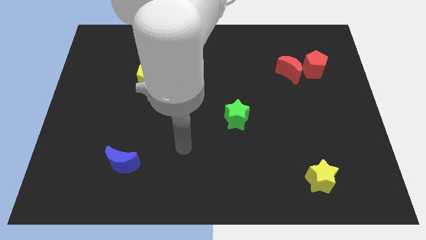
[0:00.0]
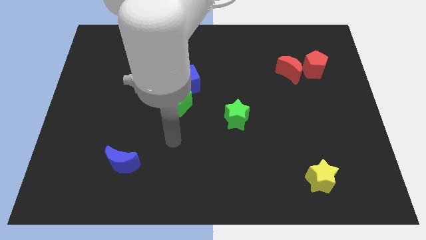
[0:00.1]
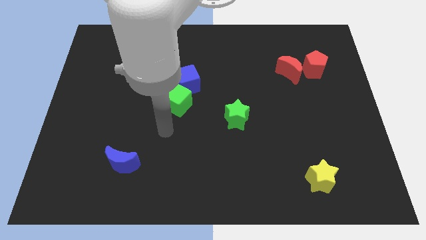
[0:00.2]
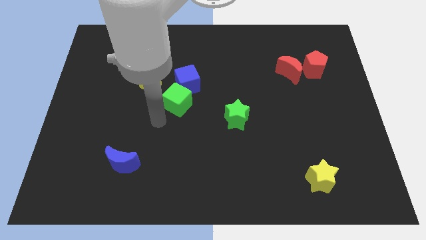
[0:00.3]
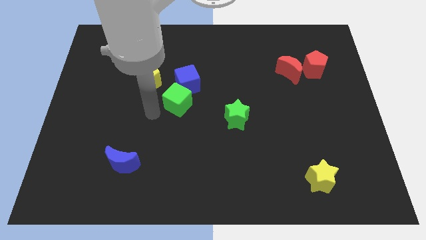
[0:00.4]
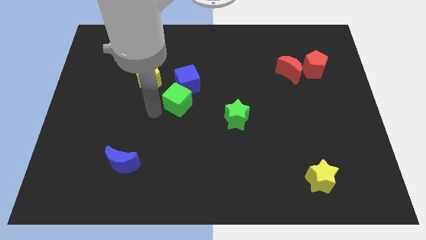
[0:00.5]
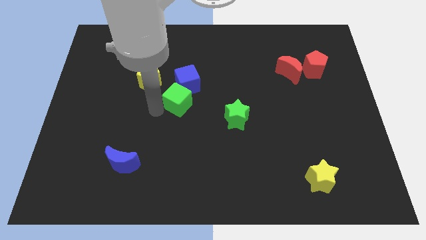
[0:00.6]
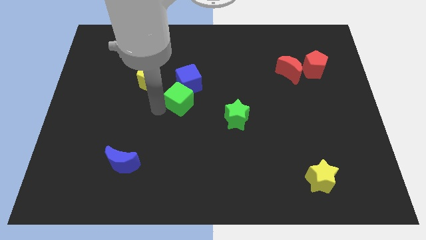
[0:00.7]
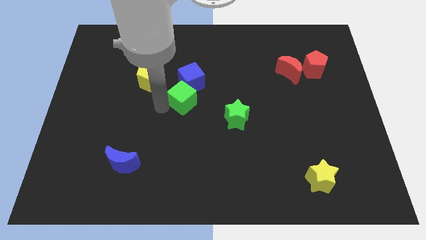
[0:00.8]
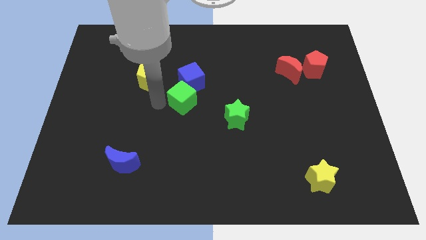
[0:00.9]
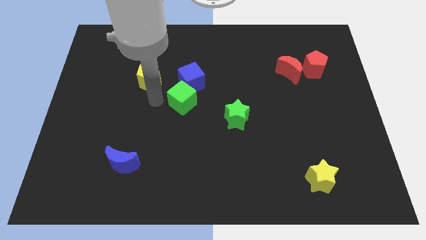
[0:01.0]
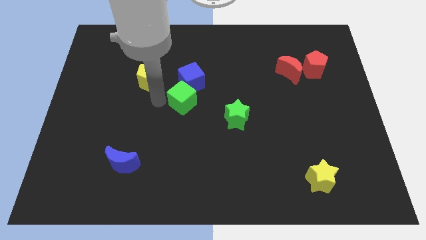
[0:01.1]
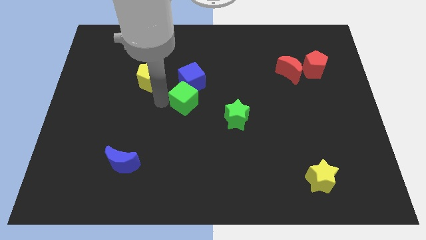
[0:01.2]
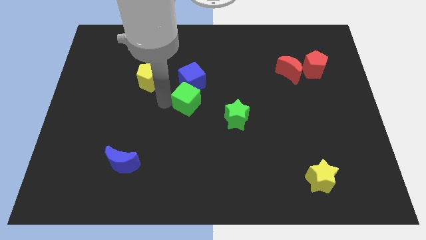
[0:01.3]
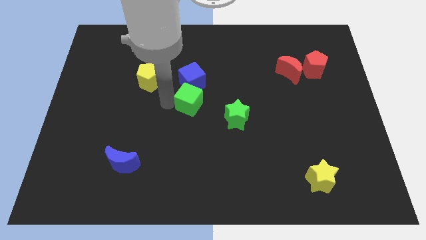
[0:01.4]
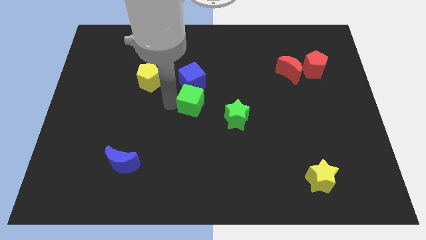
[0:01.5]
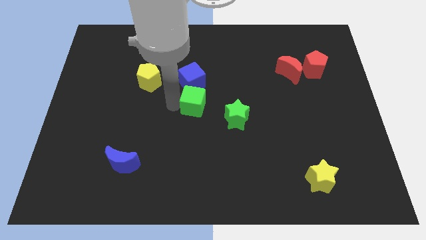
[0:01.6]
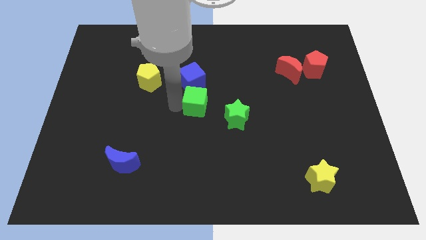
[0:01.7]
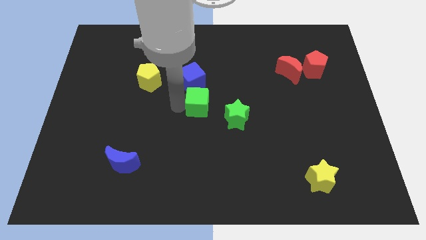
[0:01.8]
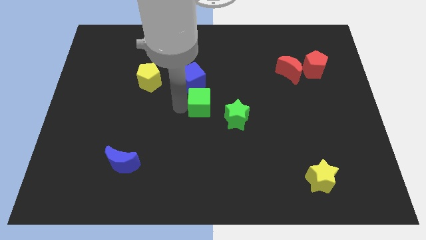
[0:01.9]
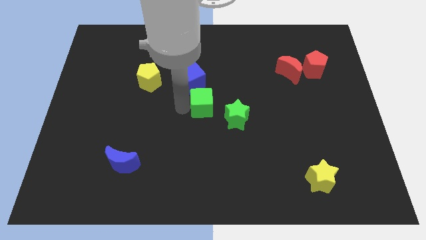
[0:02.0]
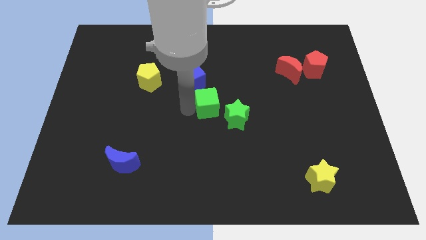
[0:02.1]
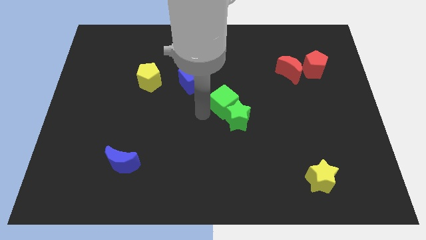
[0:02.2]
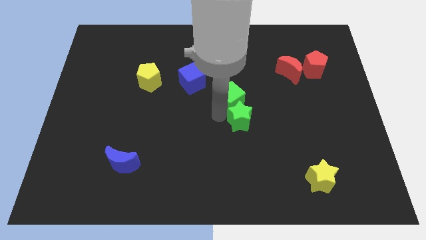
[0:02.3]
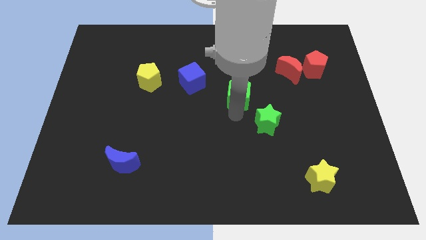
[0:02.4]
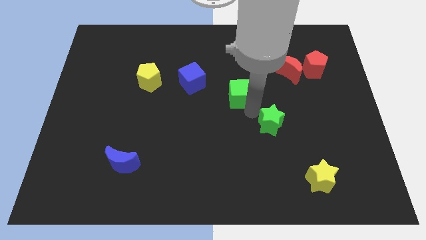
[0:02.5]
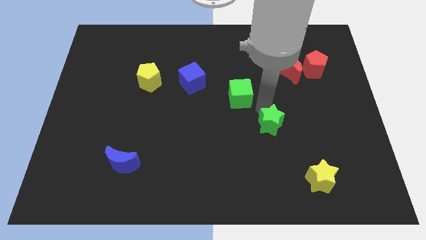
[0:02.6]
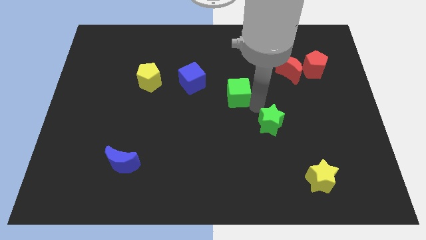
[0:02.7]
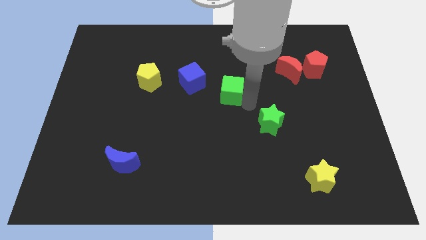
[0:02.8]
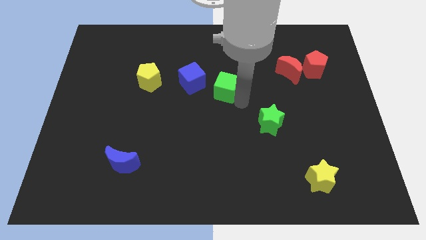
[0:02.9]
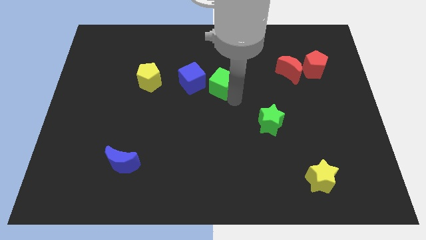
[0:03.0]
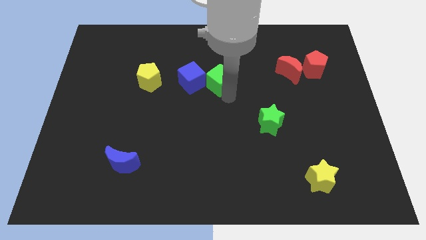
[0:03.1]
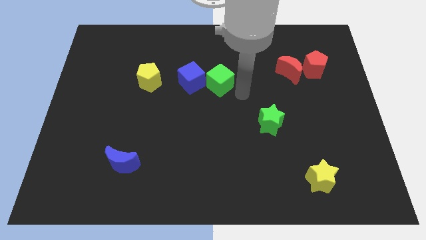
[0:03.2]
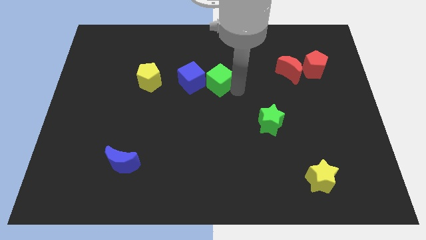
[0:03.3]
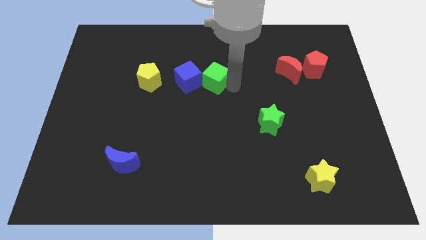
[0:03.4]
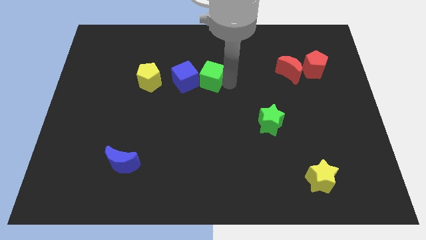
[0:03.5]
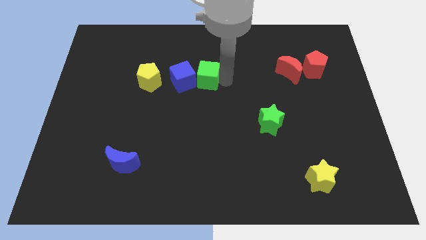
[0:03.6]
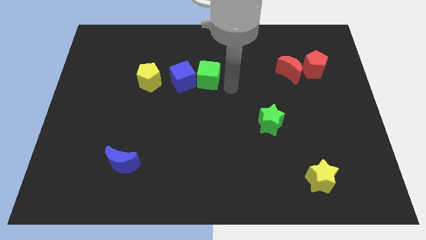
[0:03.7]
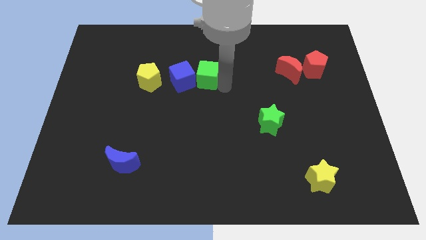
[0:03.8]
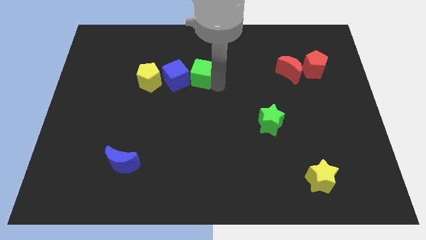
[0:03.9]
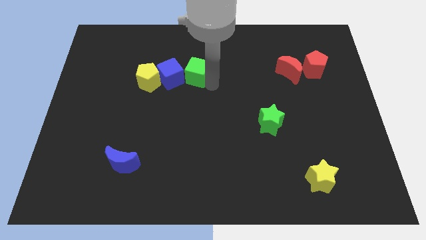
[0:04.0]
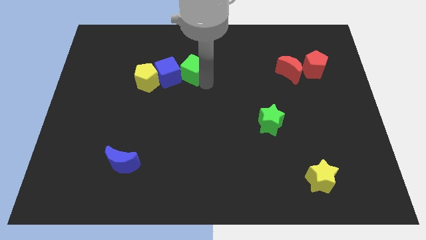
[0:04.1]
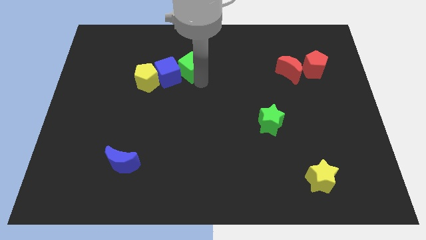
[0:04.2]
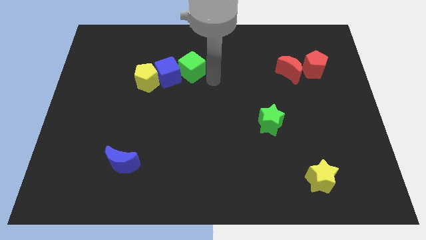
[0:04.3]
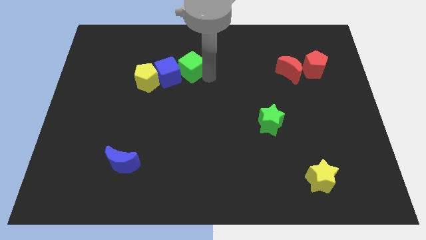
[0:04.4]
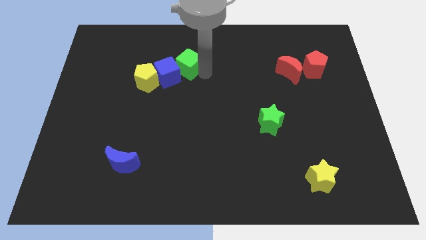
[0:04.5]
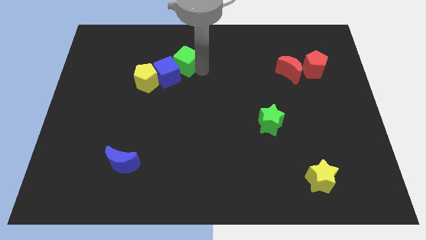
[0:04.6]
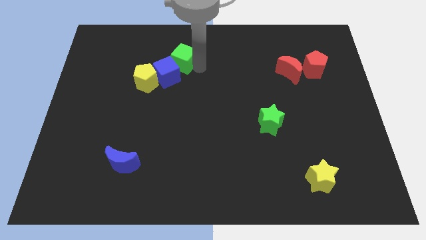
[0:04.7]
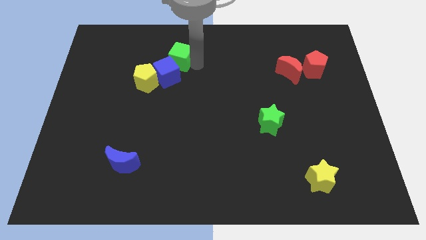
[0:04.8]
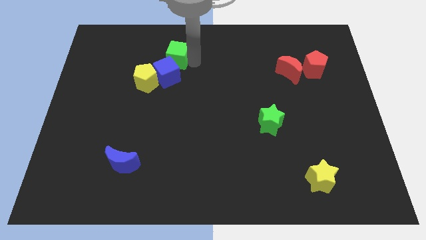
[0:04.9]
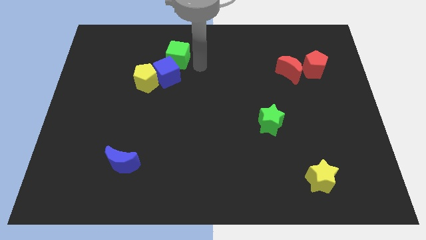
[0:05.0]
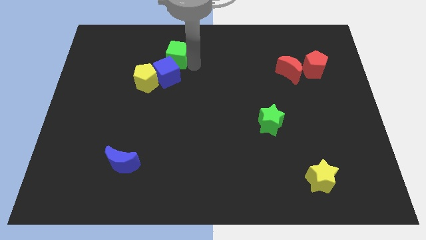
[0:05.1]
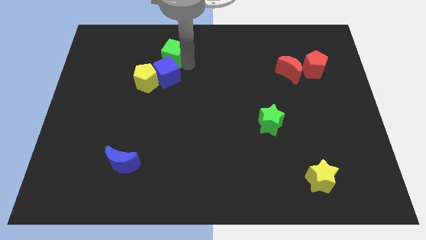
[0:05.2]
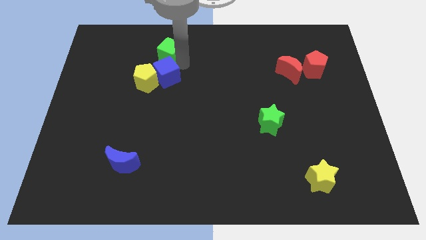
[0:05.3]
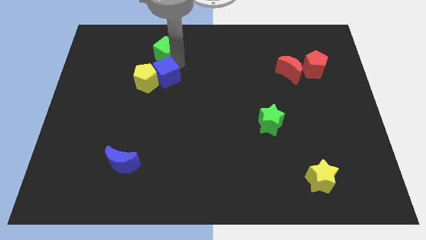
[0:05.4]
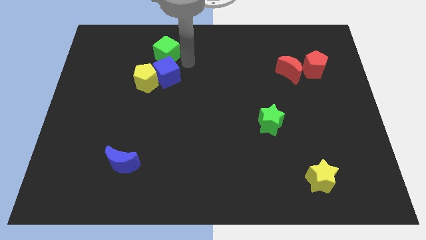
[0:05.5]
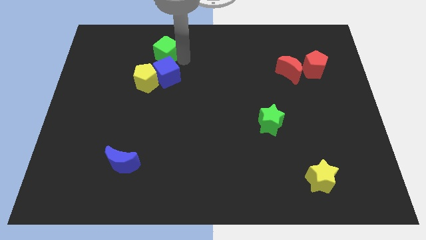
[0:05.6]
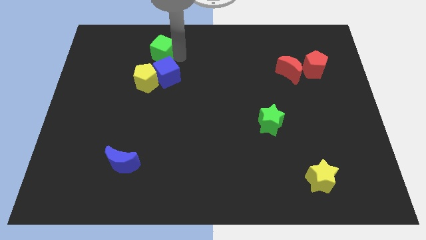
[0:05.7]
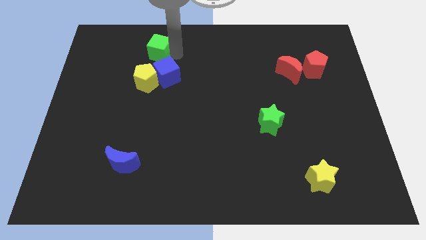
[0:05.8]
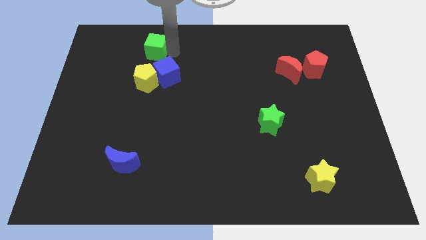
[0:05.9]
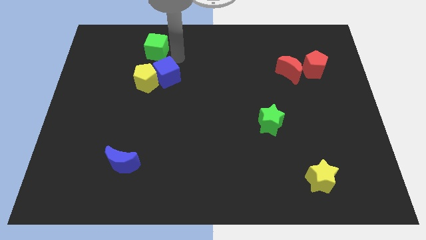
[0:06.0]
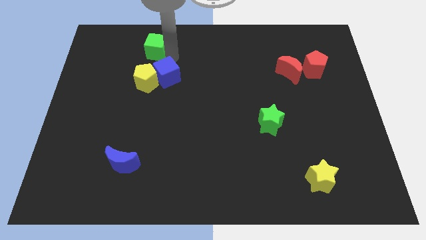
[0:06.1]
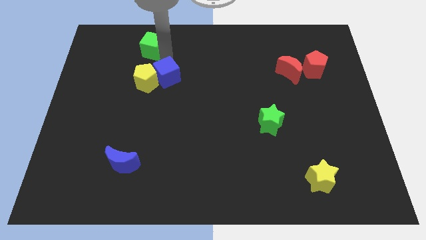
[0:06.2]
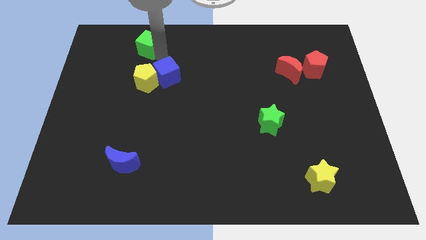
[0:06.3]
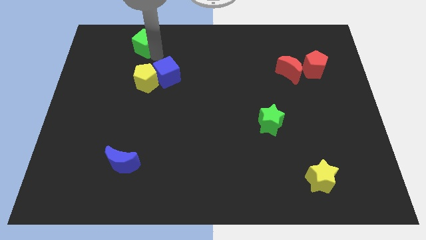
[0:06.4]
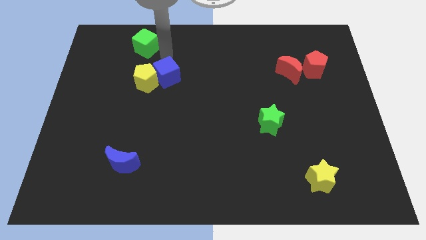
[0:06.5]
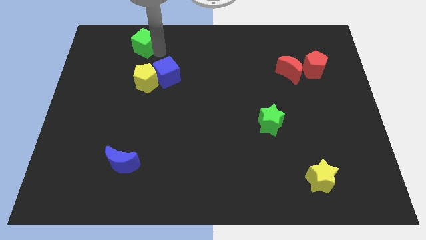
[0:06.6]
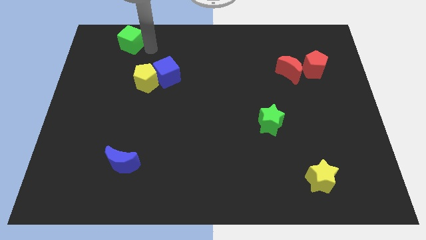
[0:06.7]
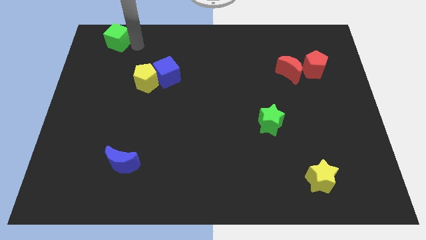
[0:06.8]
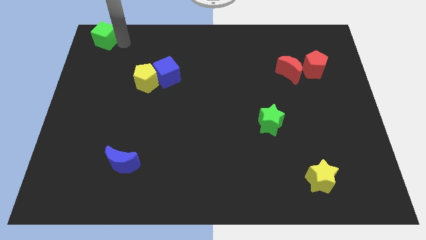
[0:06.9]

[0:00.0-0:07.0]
move the green cube to the top left
